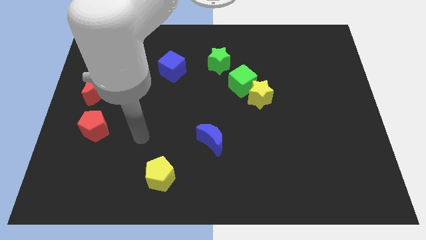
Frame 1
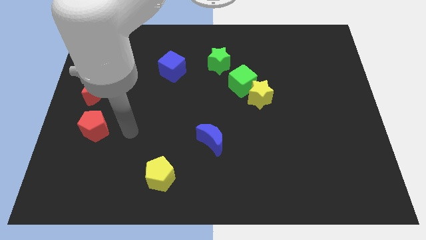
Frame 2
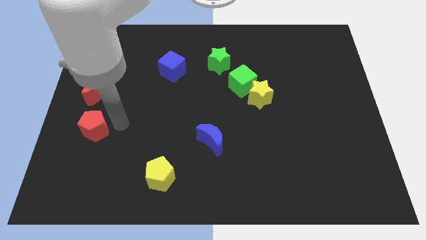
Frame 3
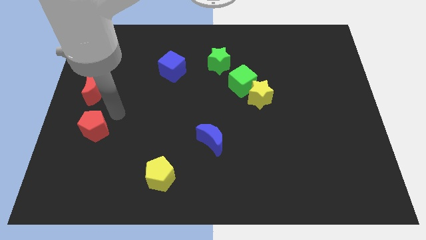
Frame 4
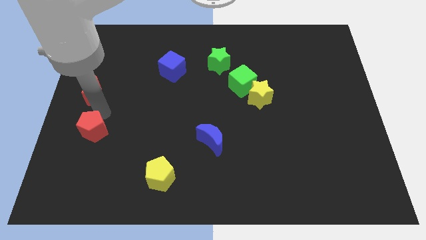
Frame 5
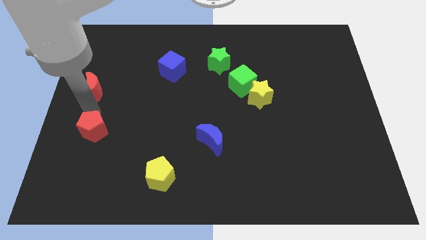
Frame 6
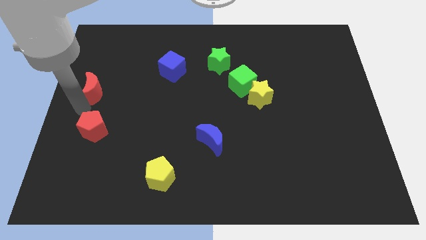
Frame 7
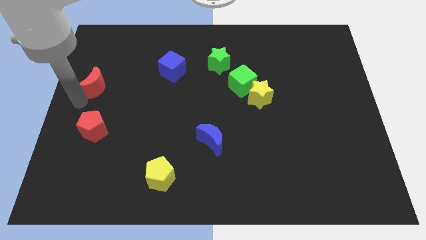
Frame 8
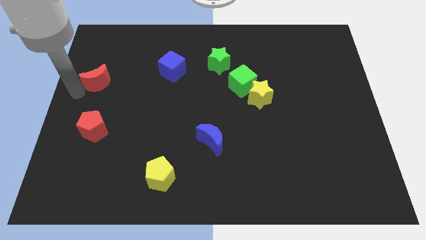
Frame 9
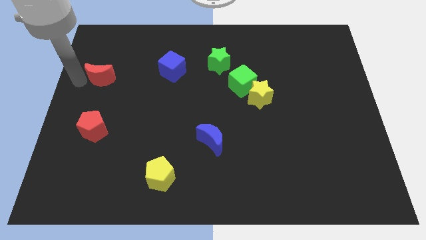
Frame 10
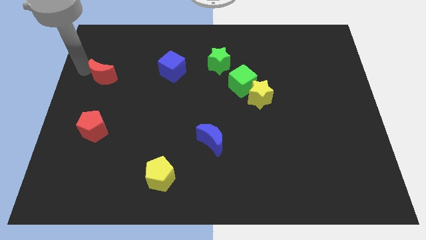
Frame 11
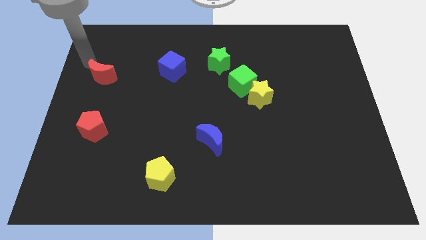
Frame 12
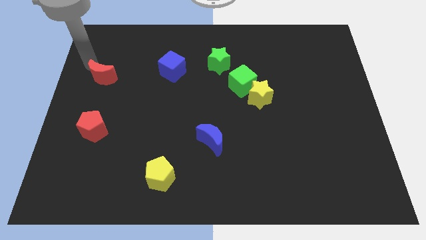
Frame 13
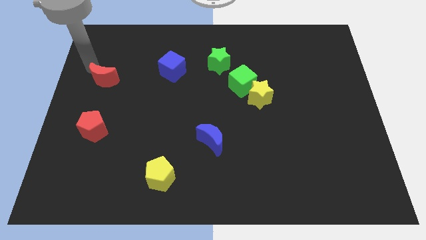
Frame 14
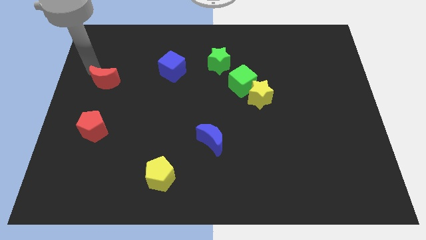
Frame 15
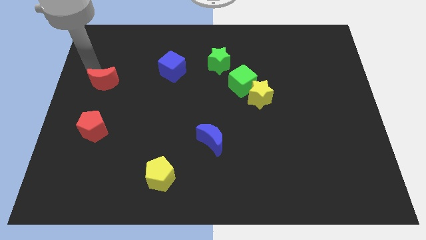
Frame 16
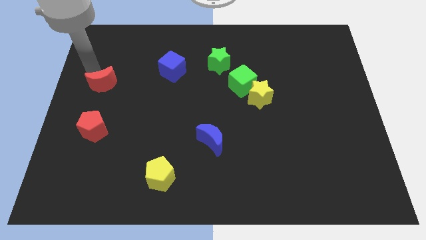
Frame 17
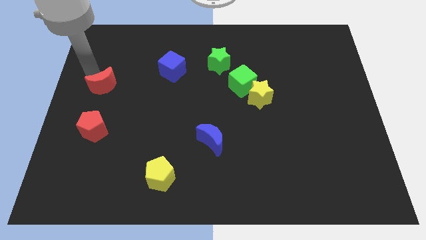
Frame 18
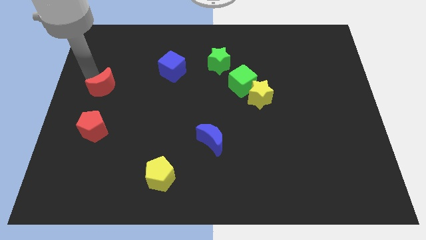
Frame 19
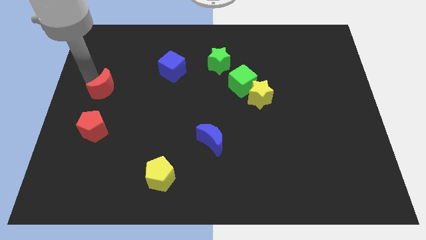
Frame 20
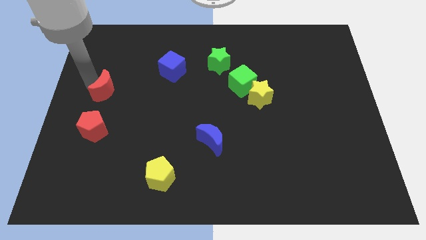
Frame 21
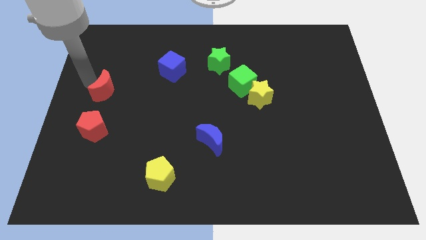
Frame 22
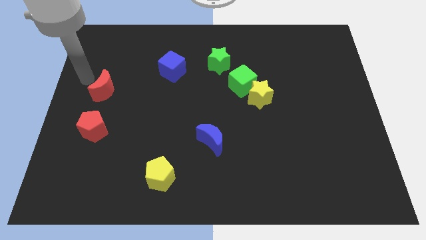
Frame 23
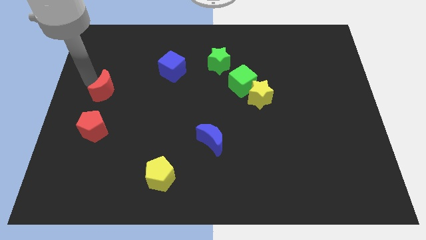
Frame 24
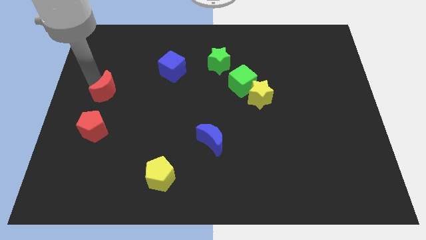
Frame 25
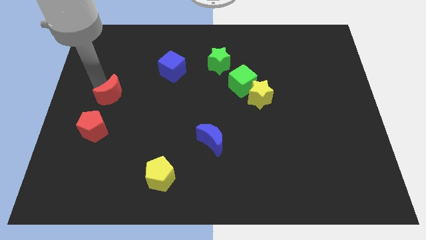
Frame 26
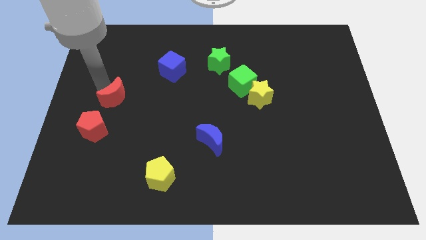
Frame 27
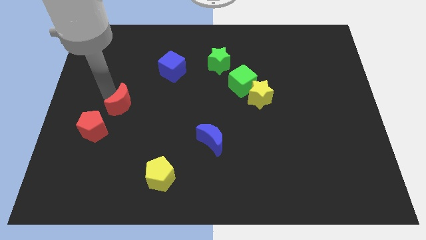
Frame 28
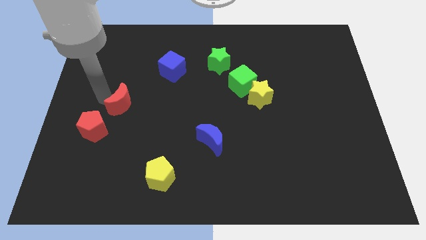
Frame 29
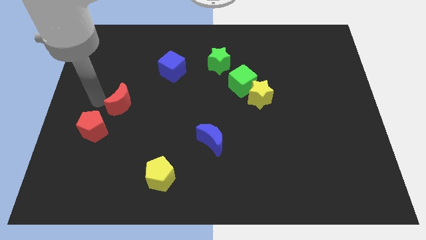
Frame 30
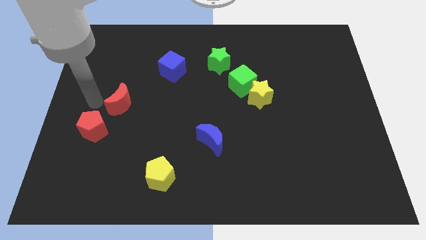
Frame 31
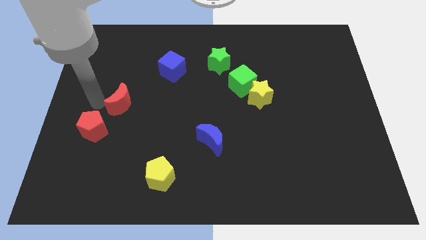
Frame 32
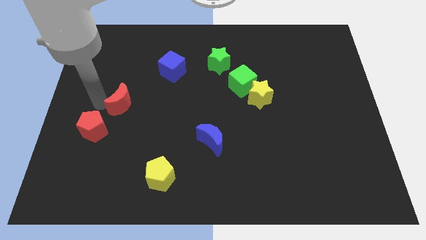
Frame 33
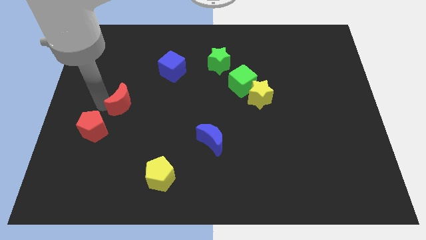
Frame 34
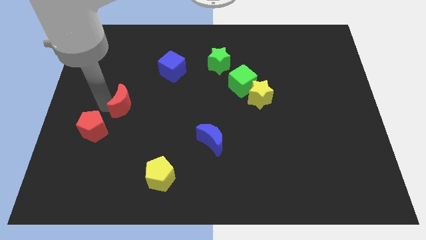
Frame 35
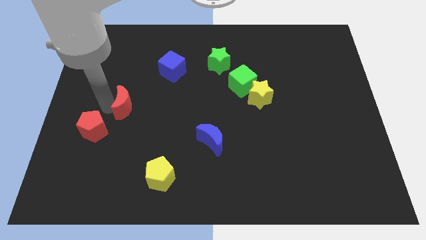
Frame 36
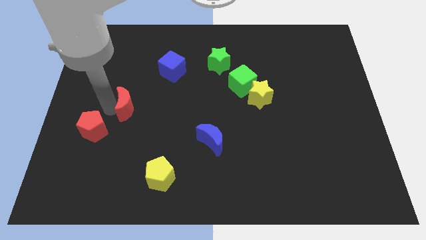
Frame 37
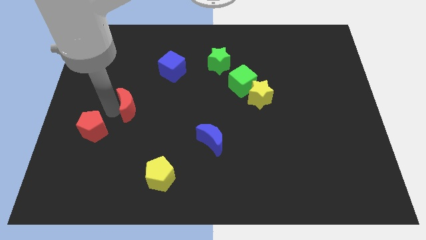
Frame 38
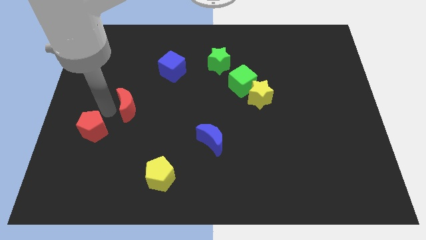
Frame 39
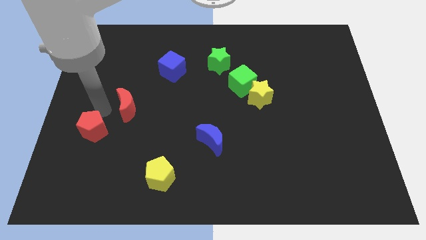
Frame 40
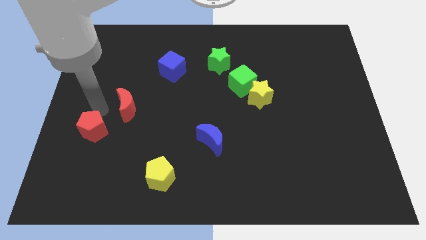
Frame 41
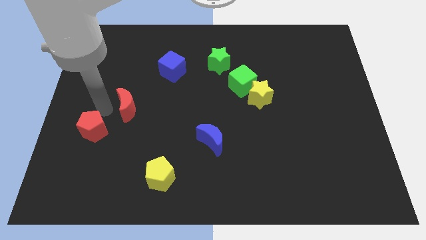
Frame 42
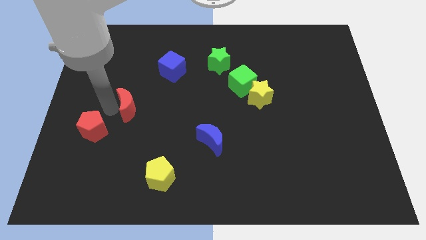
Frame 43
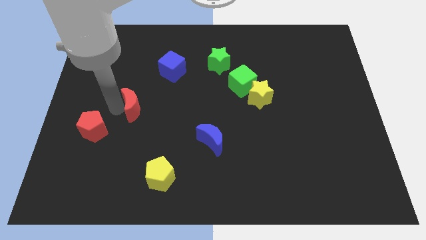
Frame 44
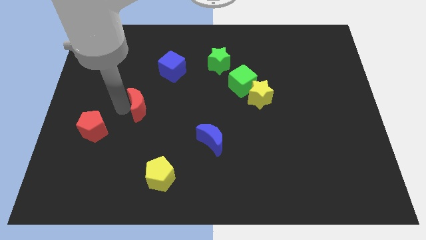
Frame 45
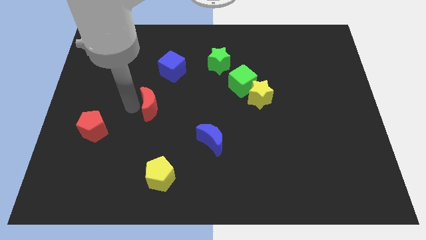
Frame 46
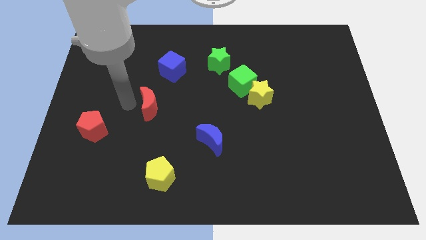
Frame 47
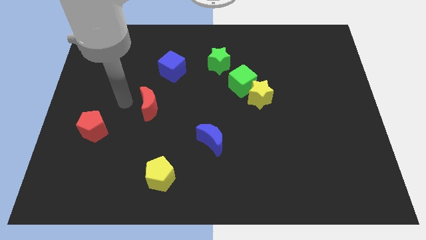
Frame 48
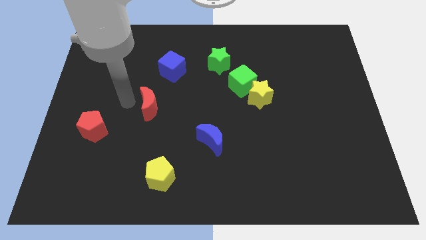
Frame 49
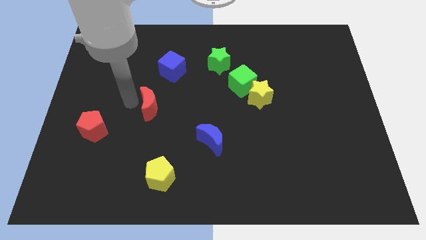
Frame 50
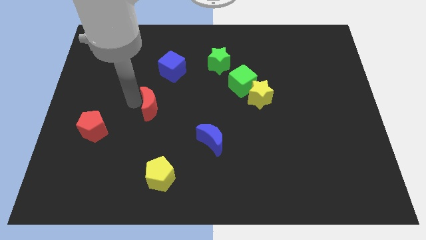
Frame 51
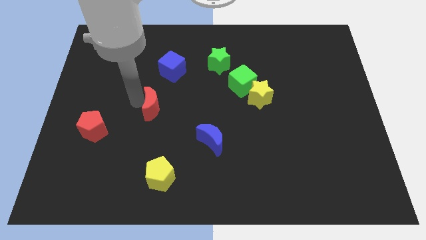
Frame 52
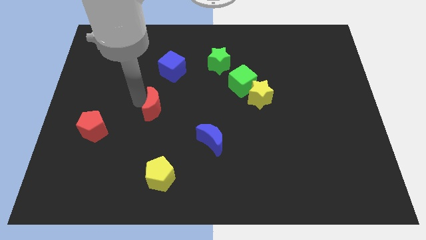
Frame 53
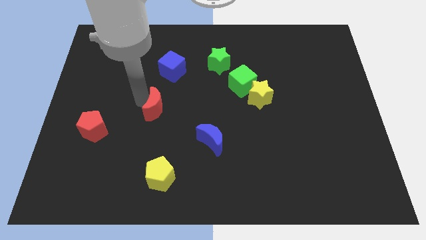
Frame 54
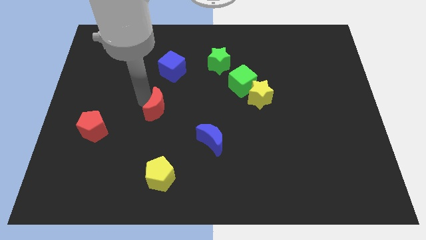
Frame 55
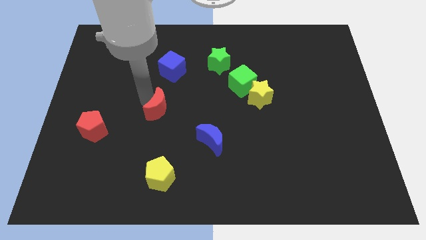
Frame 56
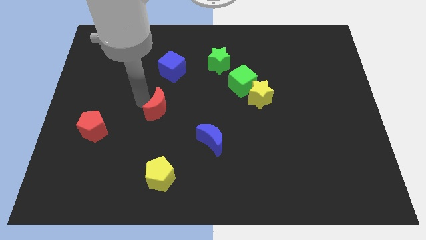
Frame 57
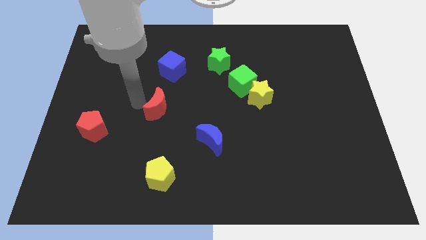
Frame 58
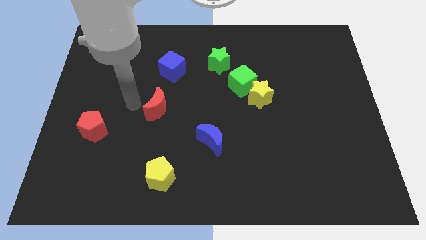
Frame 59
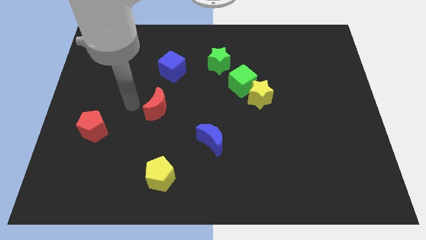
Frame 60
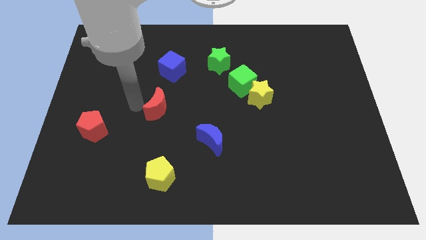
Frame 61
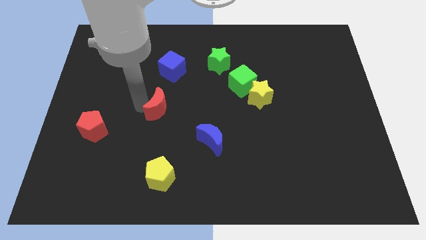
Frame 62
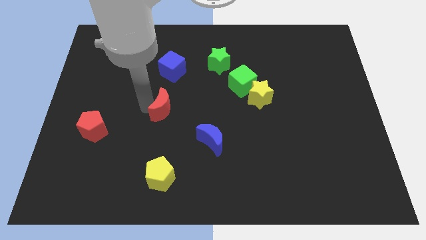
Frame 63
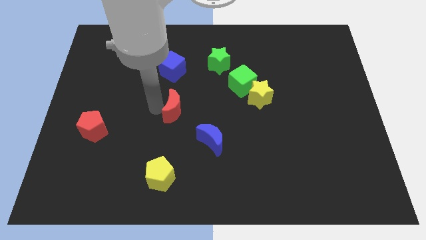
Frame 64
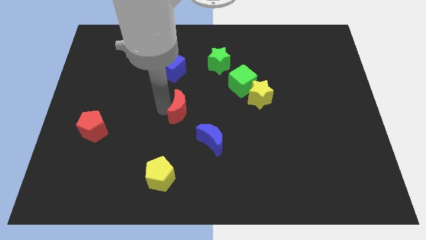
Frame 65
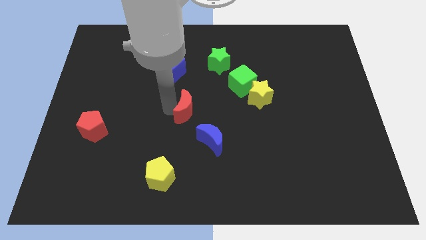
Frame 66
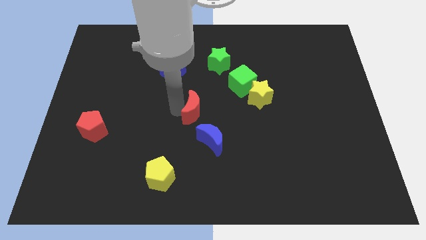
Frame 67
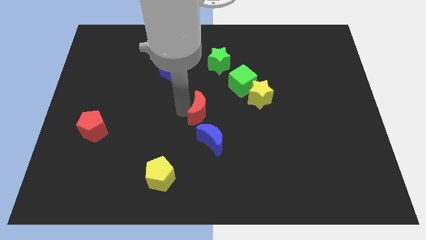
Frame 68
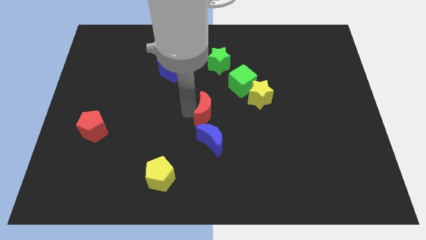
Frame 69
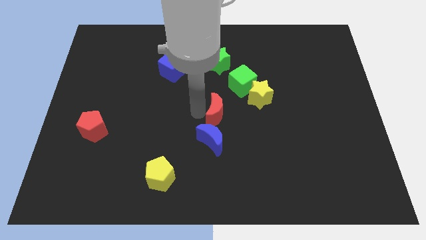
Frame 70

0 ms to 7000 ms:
slide the red moon to the bottom left side of the yellow star
